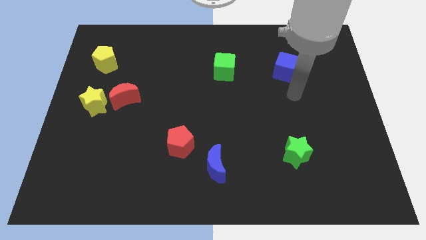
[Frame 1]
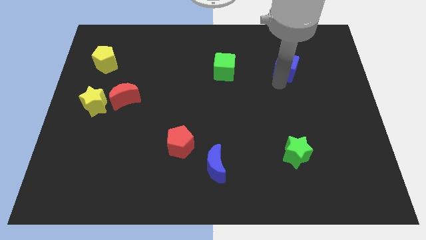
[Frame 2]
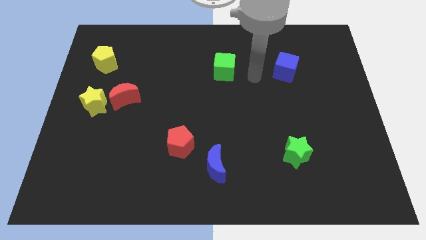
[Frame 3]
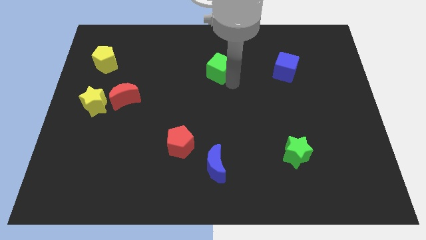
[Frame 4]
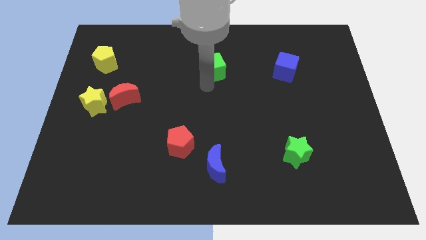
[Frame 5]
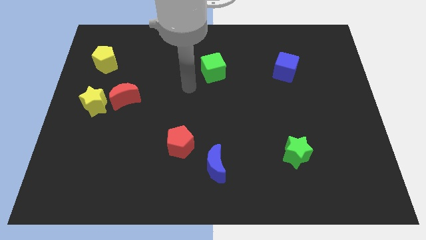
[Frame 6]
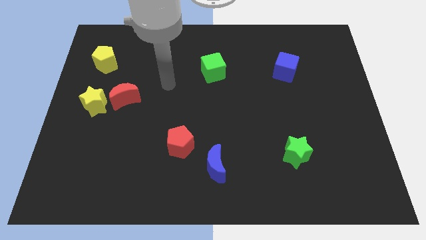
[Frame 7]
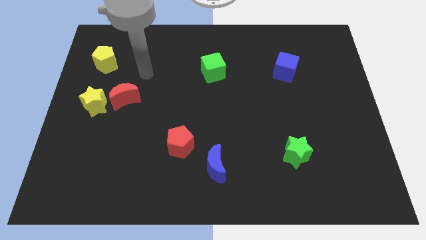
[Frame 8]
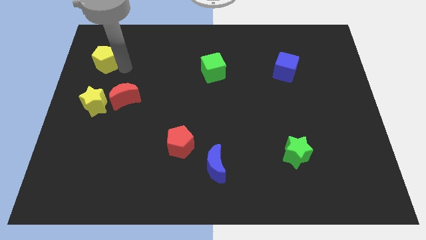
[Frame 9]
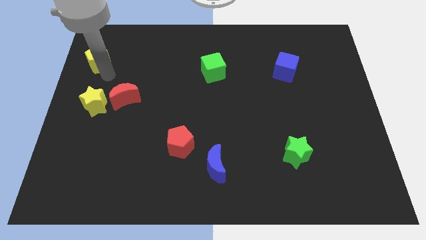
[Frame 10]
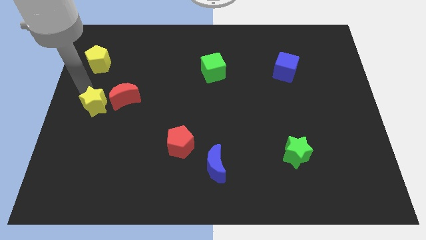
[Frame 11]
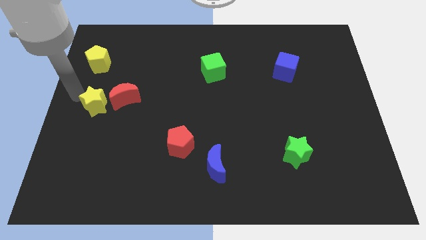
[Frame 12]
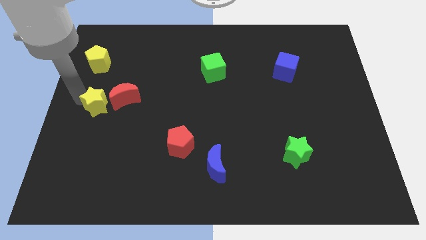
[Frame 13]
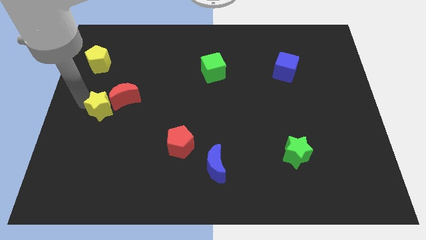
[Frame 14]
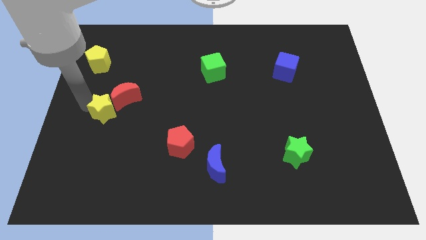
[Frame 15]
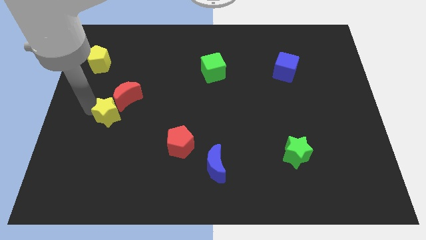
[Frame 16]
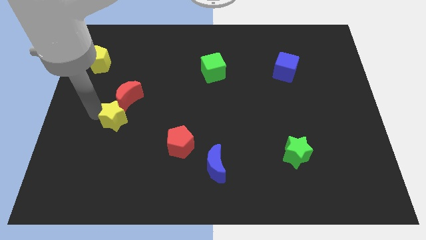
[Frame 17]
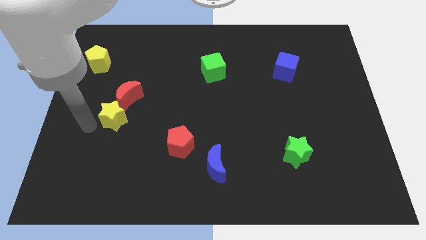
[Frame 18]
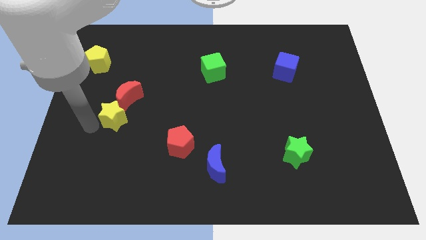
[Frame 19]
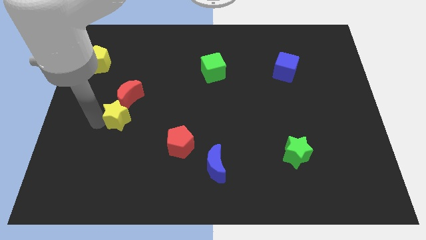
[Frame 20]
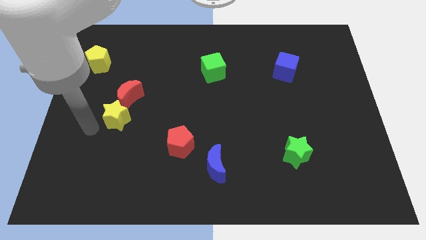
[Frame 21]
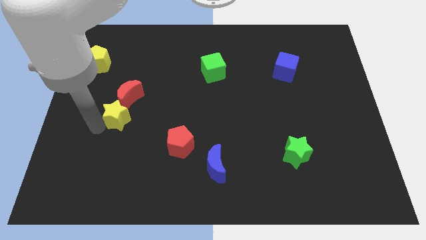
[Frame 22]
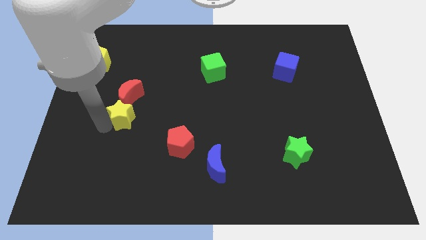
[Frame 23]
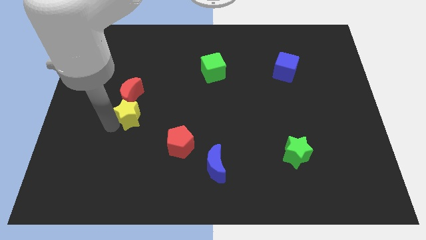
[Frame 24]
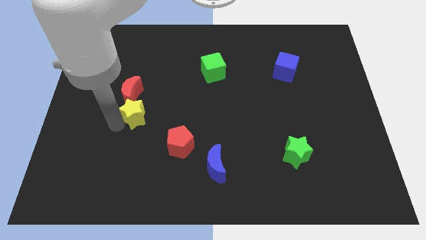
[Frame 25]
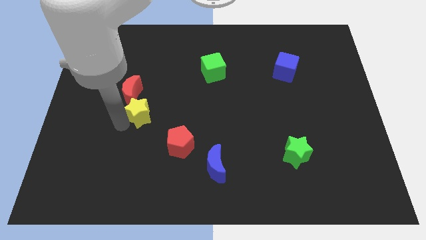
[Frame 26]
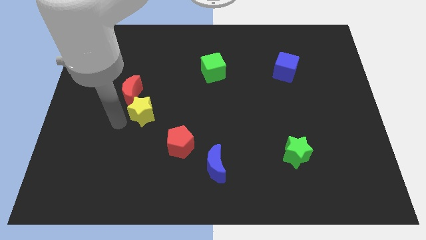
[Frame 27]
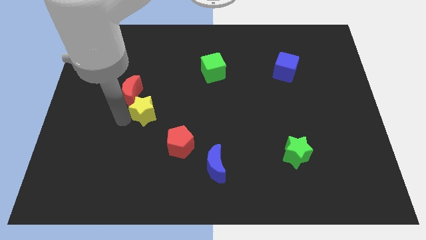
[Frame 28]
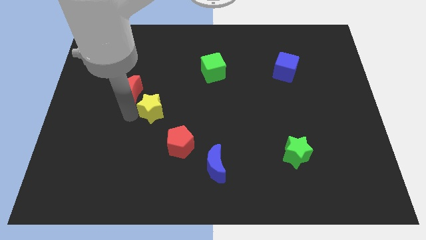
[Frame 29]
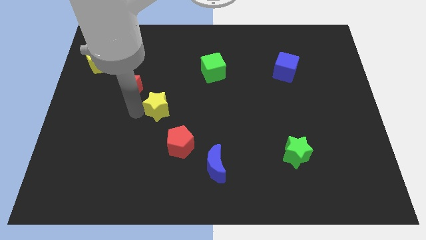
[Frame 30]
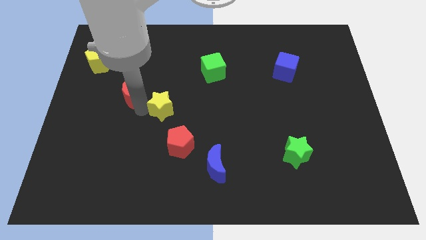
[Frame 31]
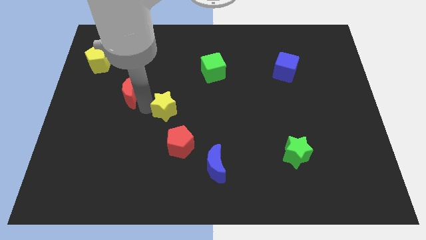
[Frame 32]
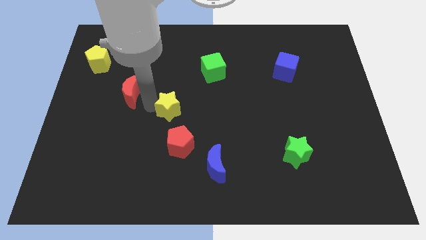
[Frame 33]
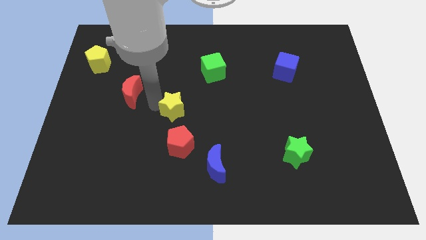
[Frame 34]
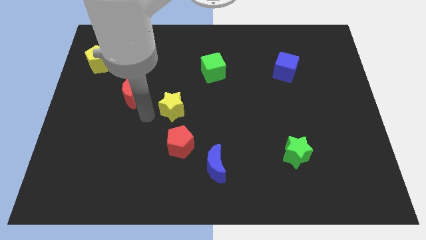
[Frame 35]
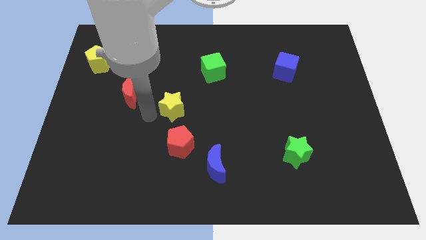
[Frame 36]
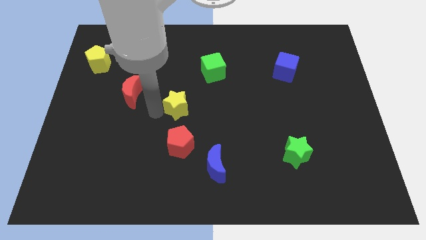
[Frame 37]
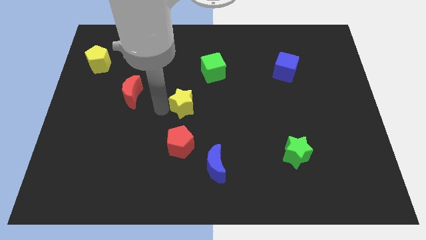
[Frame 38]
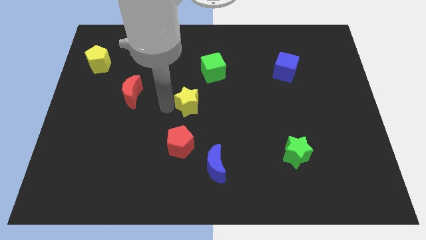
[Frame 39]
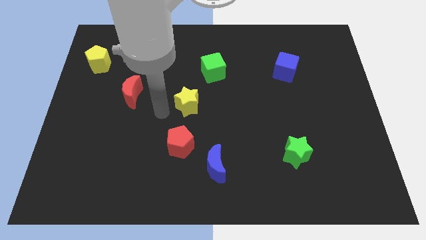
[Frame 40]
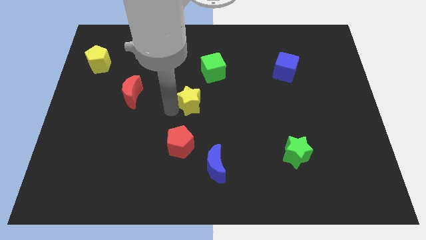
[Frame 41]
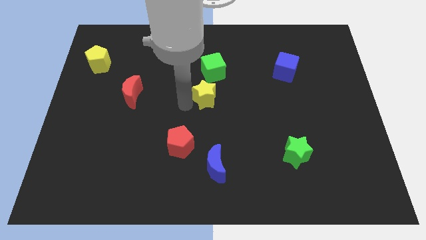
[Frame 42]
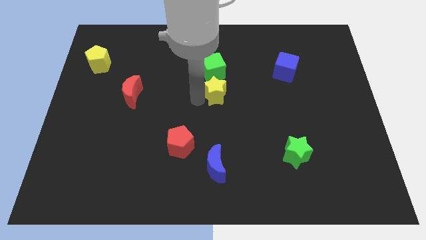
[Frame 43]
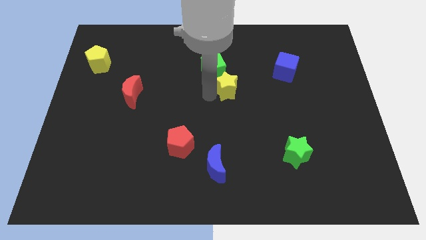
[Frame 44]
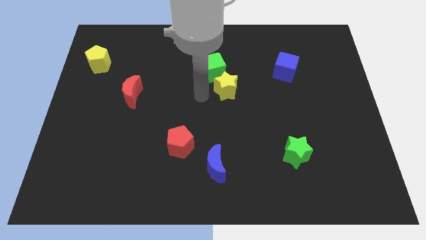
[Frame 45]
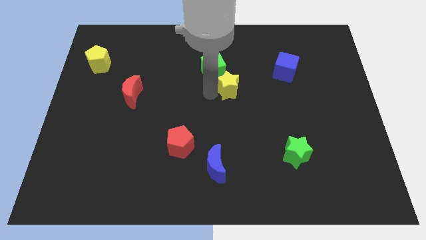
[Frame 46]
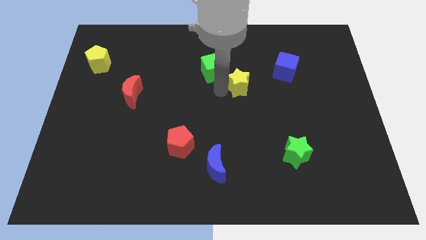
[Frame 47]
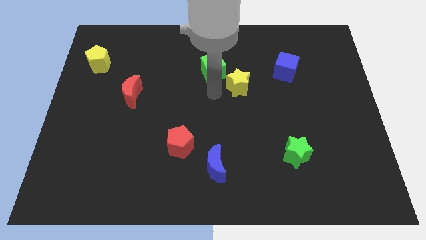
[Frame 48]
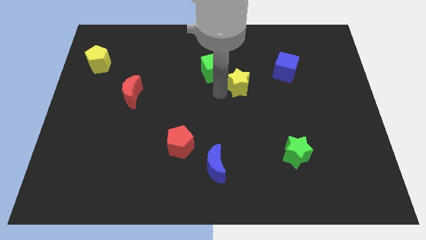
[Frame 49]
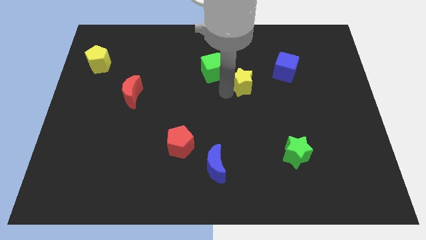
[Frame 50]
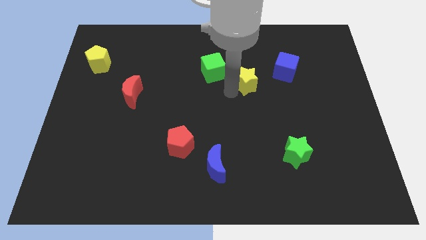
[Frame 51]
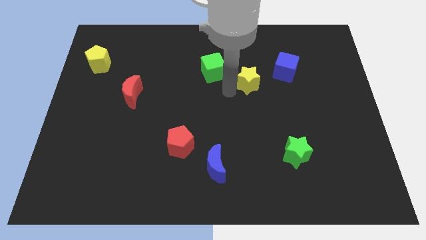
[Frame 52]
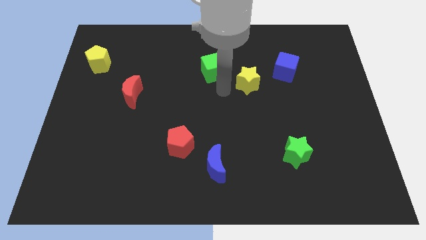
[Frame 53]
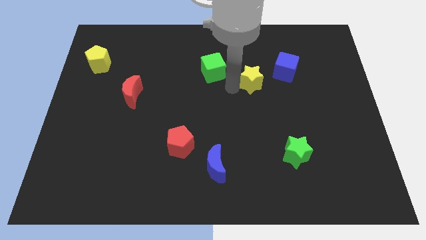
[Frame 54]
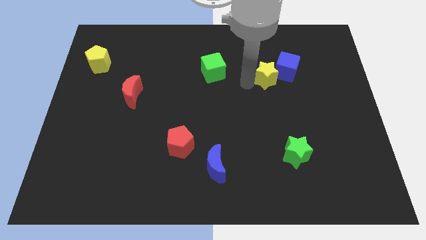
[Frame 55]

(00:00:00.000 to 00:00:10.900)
move the yellow star close to the blue cube

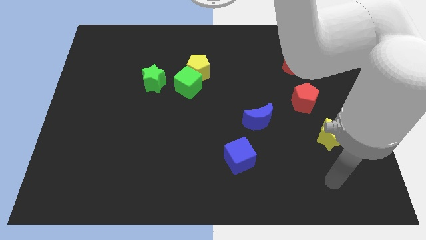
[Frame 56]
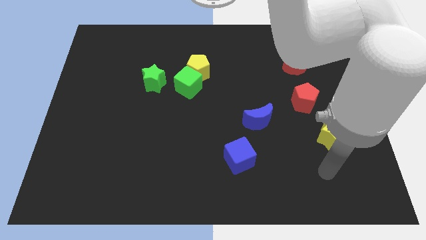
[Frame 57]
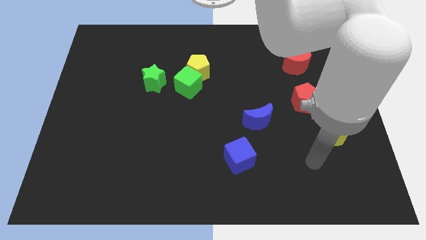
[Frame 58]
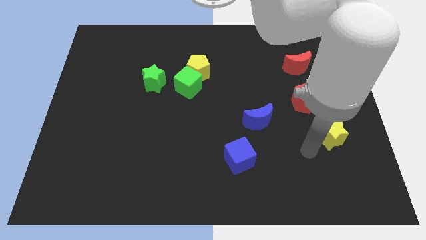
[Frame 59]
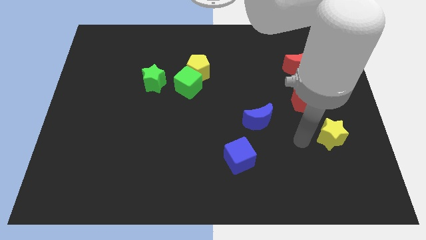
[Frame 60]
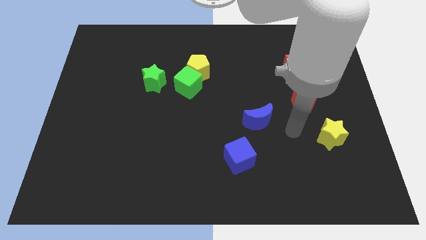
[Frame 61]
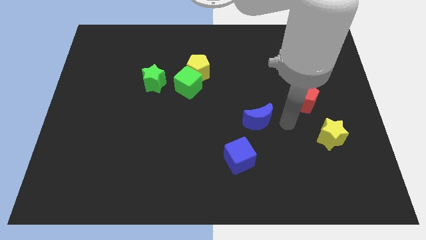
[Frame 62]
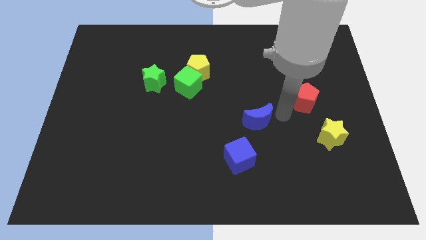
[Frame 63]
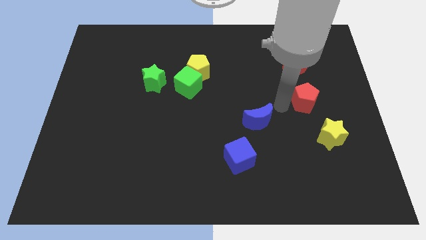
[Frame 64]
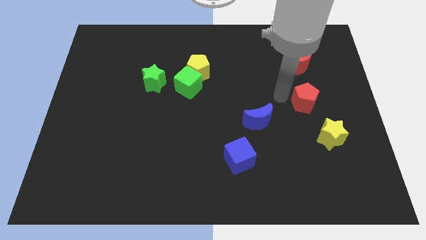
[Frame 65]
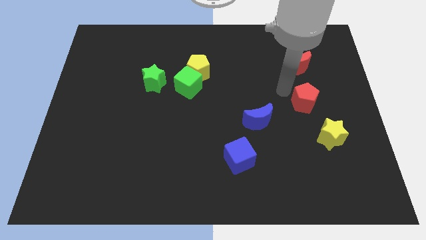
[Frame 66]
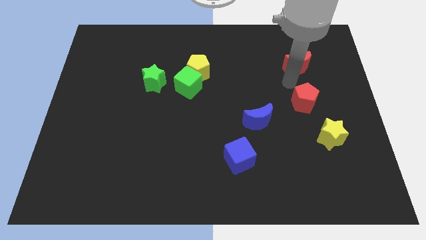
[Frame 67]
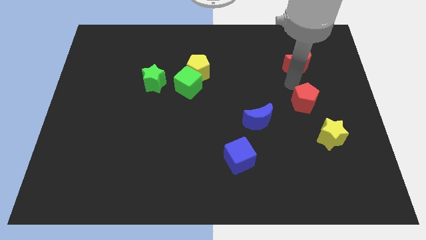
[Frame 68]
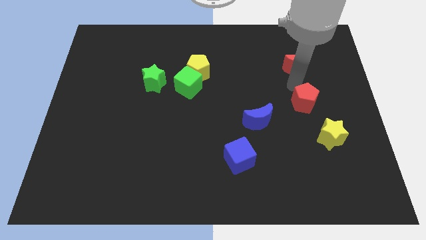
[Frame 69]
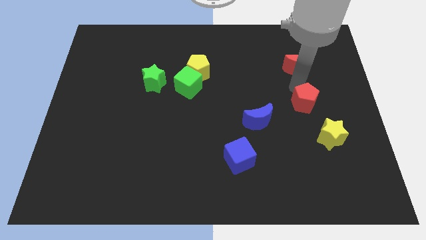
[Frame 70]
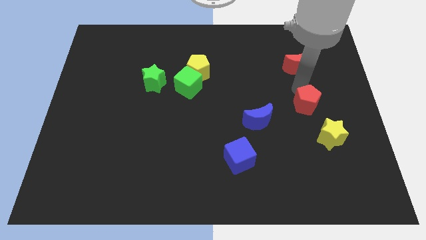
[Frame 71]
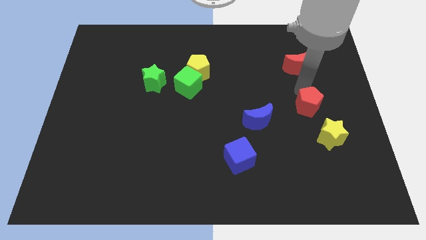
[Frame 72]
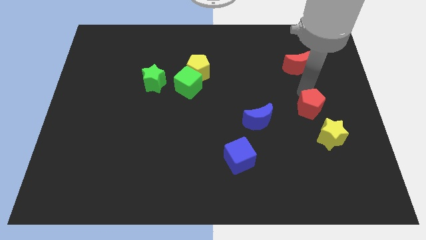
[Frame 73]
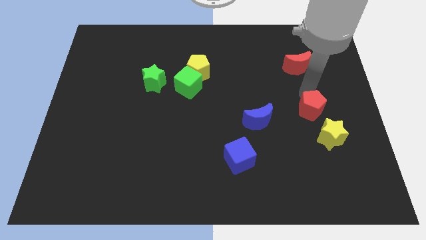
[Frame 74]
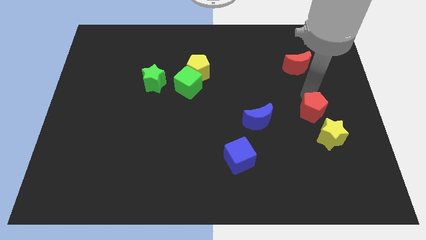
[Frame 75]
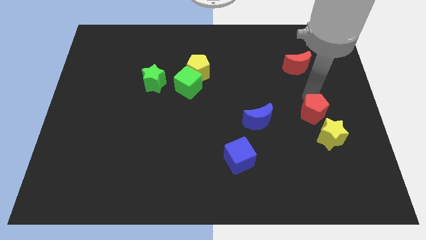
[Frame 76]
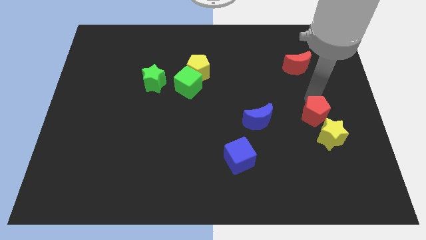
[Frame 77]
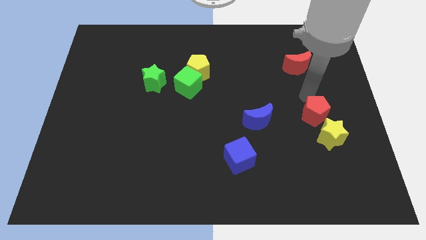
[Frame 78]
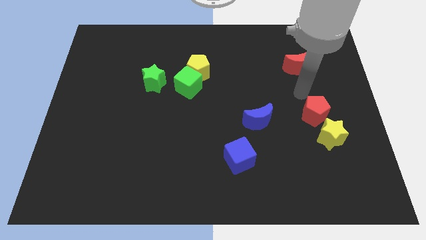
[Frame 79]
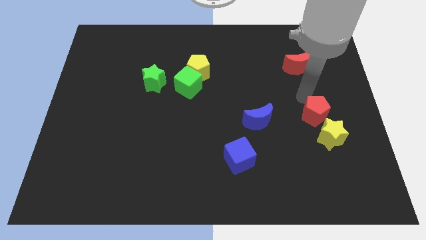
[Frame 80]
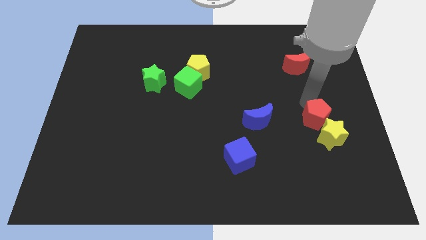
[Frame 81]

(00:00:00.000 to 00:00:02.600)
slide the red pentagon close to the yellow star

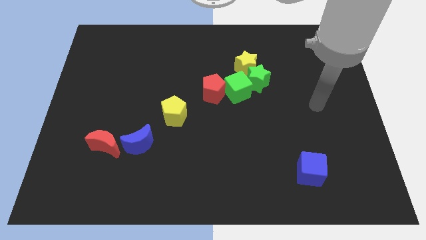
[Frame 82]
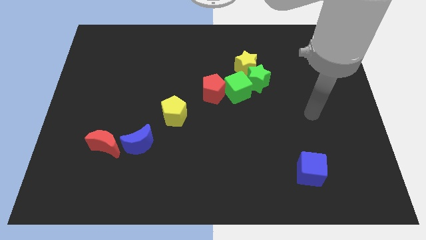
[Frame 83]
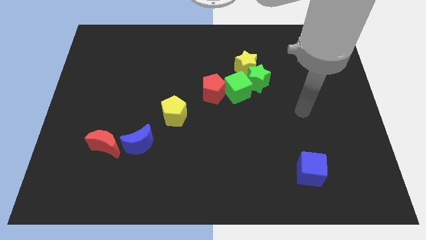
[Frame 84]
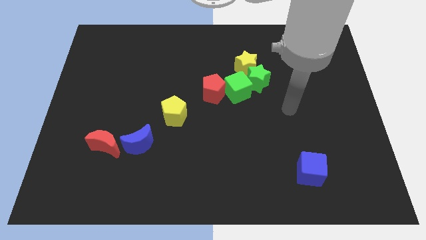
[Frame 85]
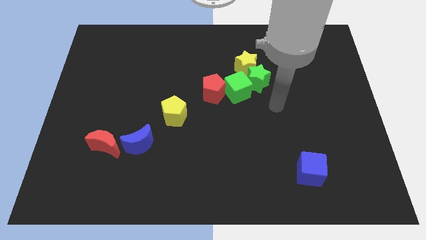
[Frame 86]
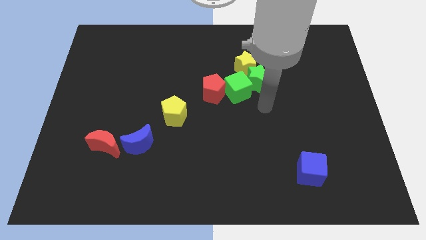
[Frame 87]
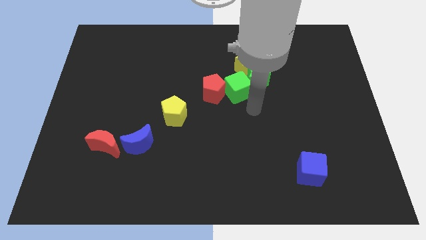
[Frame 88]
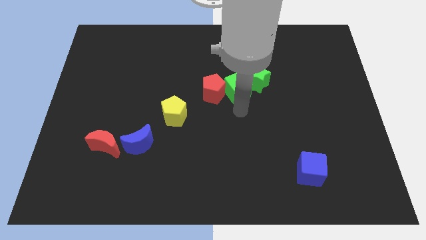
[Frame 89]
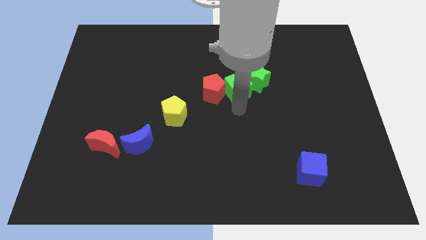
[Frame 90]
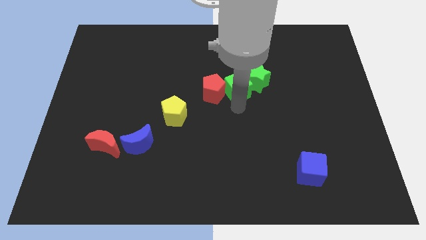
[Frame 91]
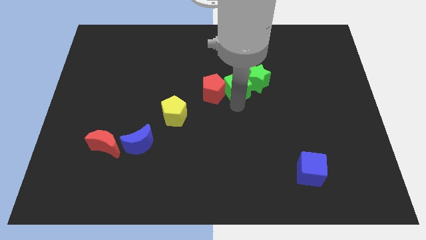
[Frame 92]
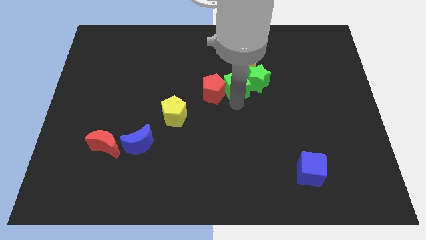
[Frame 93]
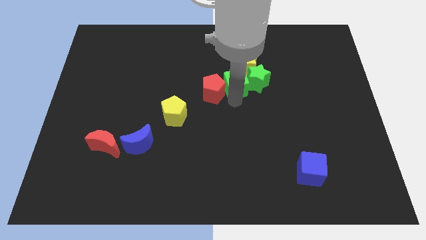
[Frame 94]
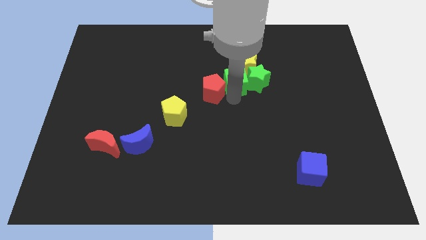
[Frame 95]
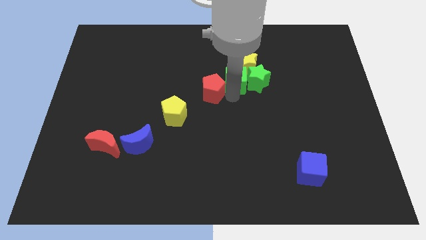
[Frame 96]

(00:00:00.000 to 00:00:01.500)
put the green cube next to the yellow star
